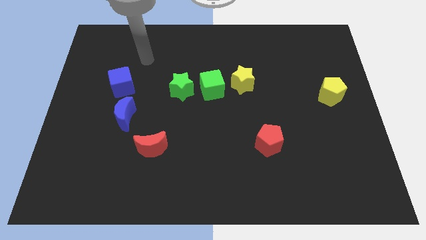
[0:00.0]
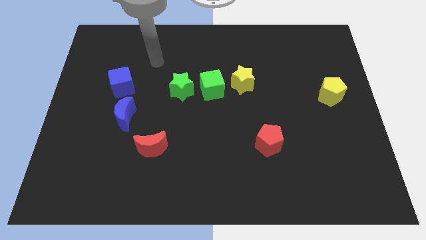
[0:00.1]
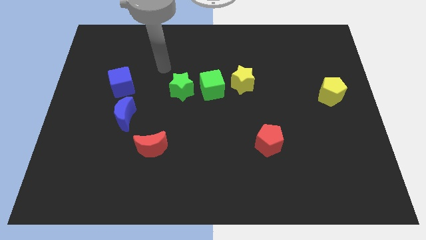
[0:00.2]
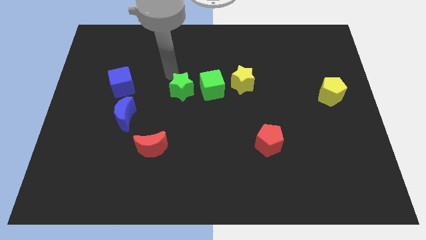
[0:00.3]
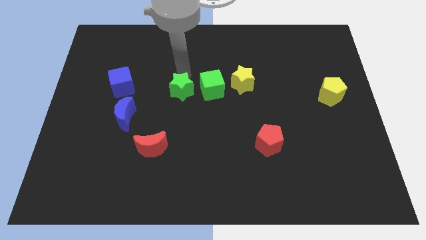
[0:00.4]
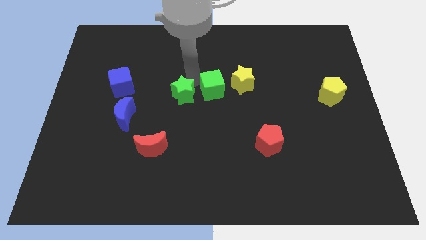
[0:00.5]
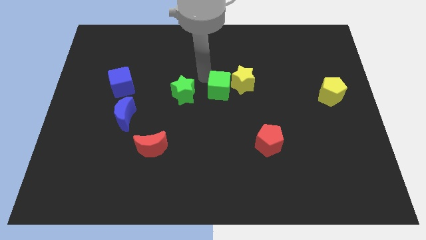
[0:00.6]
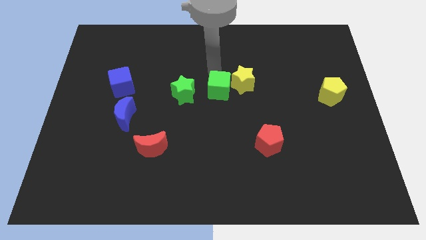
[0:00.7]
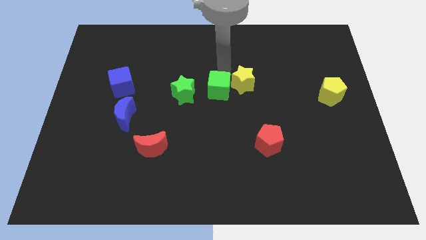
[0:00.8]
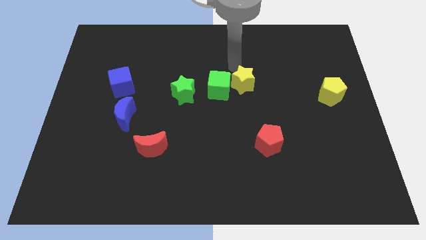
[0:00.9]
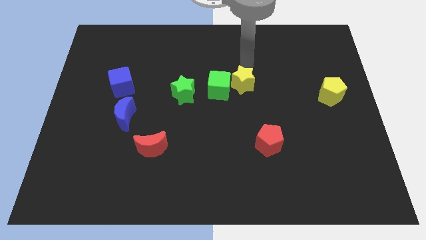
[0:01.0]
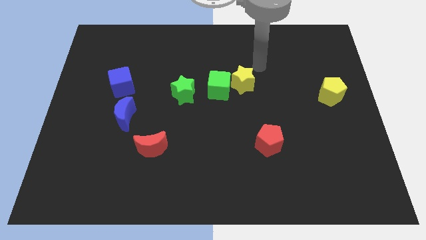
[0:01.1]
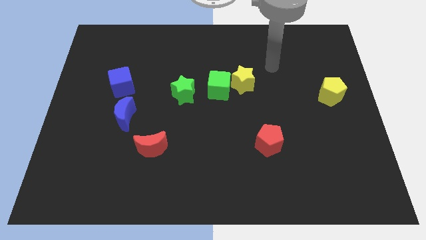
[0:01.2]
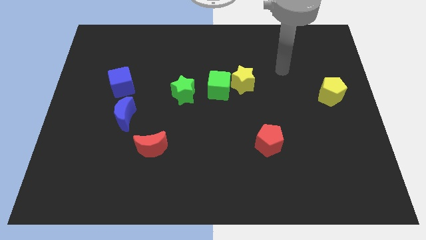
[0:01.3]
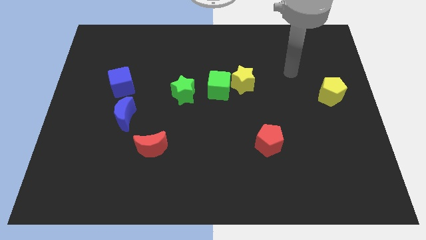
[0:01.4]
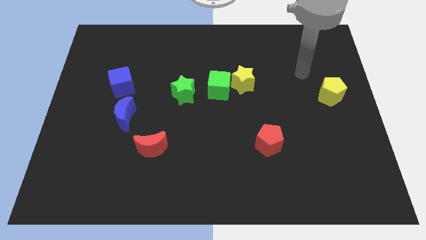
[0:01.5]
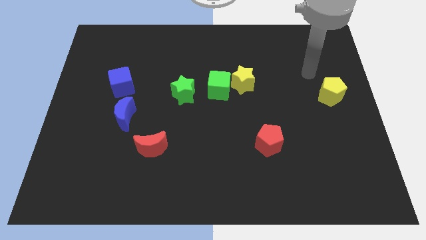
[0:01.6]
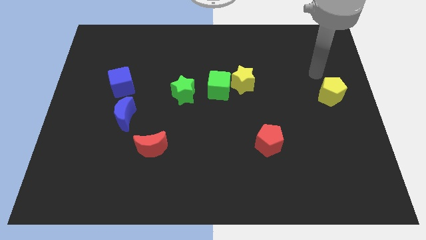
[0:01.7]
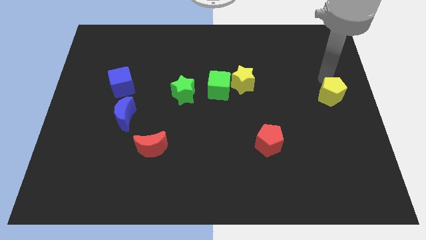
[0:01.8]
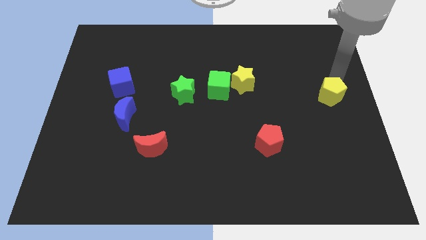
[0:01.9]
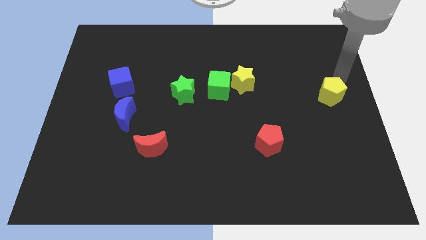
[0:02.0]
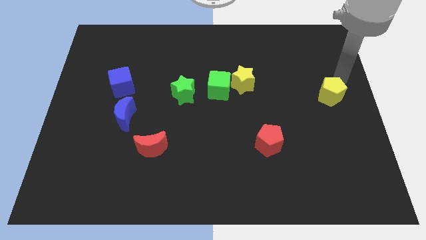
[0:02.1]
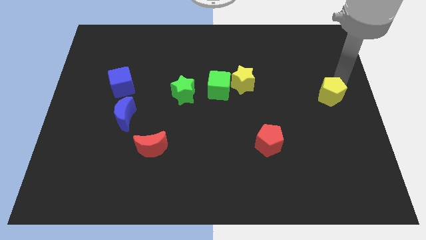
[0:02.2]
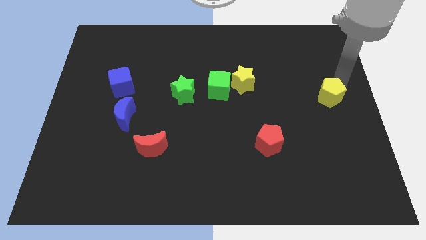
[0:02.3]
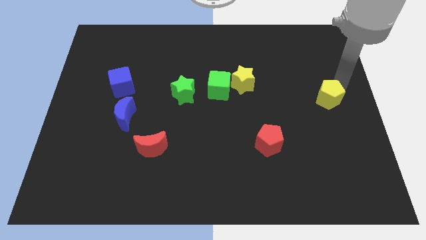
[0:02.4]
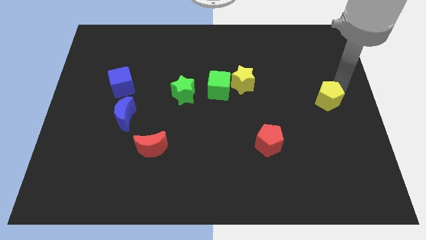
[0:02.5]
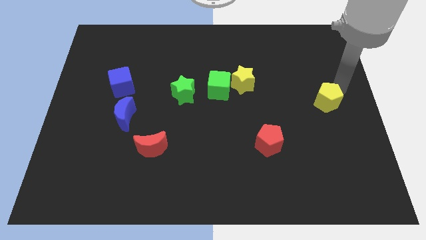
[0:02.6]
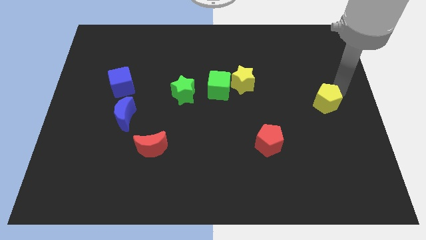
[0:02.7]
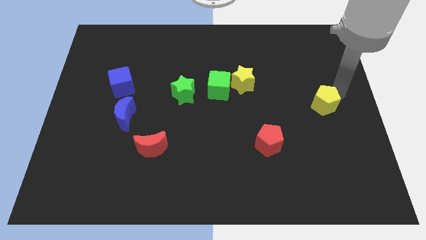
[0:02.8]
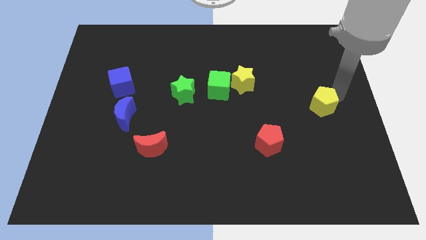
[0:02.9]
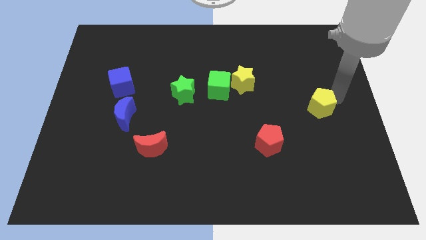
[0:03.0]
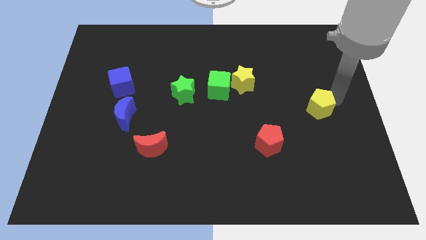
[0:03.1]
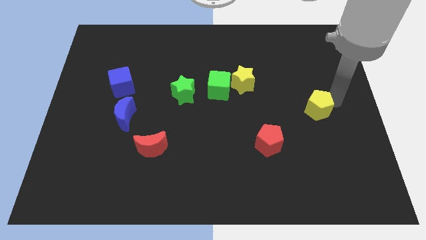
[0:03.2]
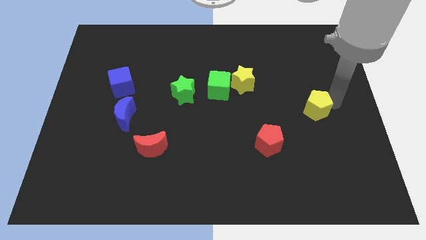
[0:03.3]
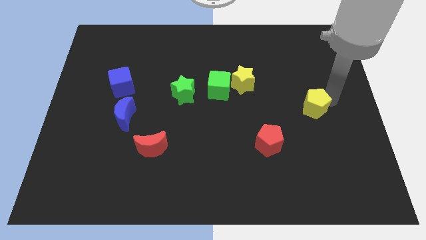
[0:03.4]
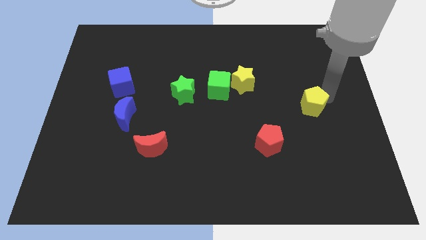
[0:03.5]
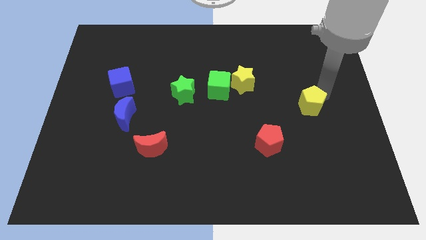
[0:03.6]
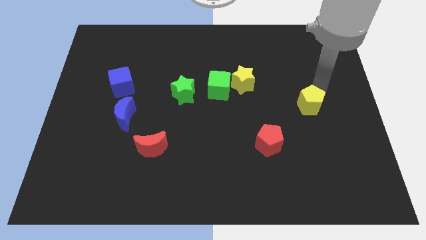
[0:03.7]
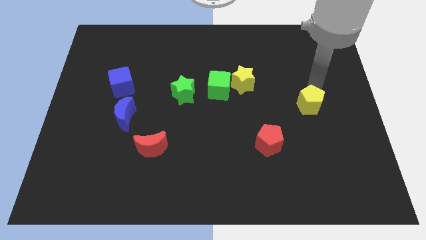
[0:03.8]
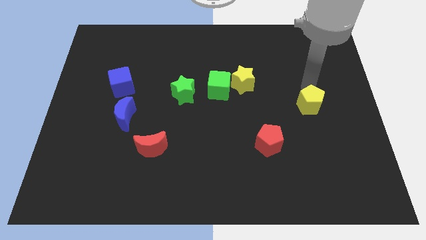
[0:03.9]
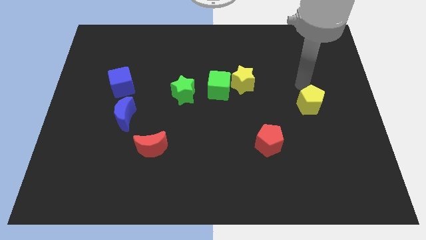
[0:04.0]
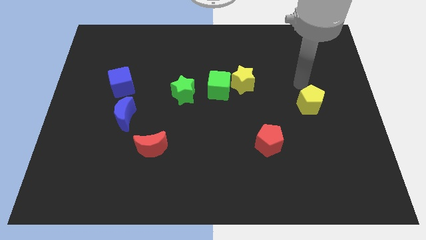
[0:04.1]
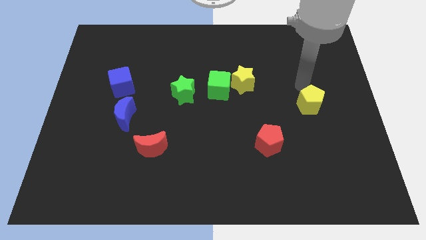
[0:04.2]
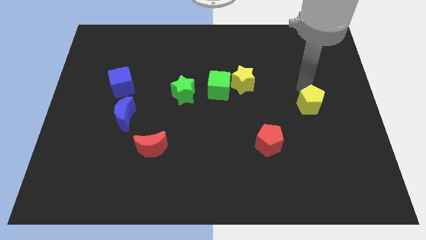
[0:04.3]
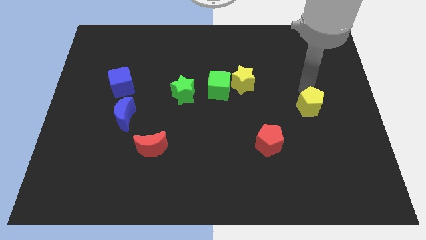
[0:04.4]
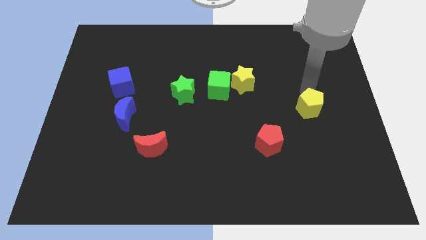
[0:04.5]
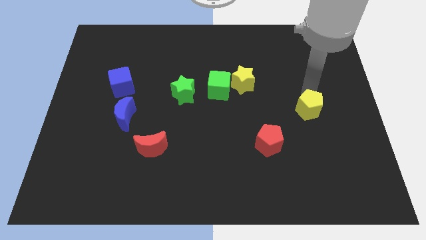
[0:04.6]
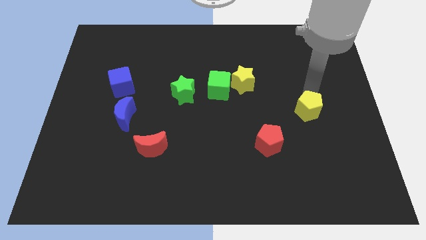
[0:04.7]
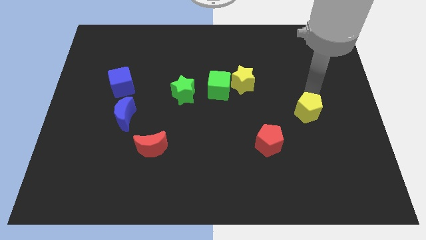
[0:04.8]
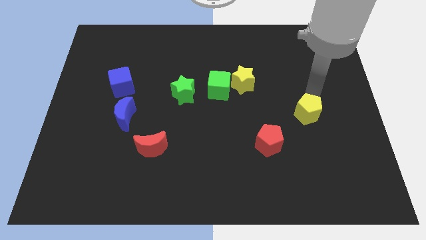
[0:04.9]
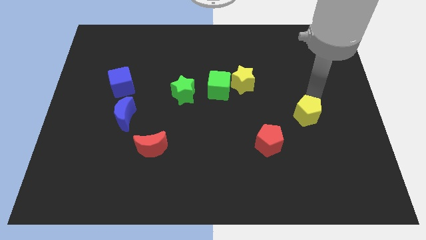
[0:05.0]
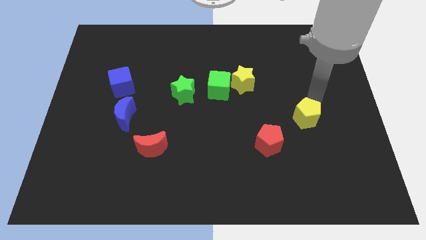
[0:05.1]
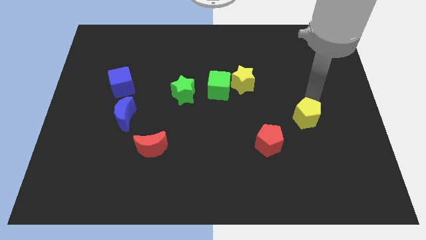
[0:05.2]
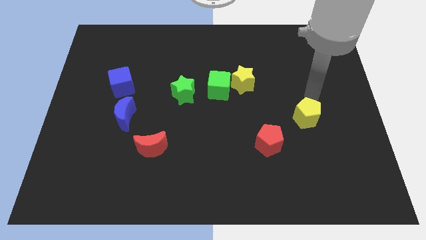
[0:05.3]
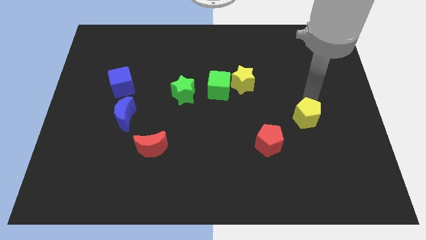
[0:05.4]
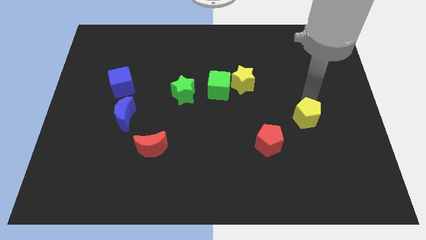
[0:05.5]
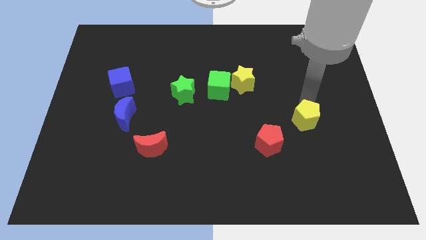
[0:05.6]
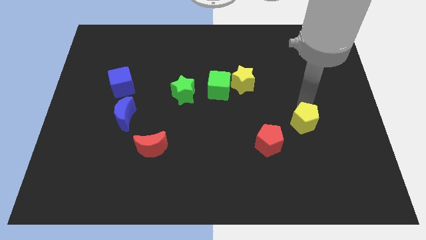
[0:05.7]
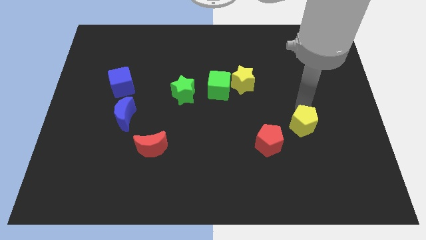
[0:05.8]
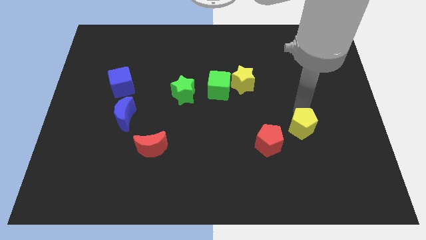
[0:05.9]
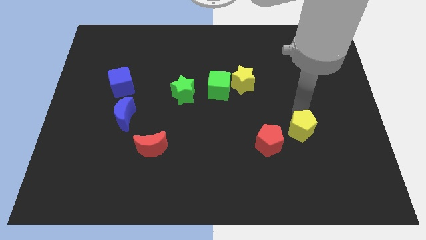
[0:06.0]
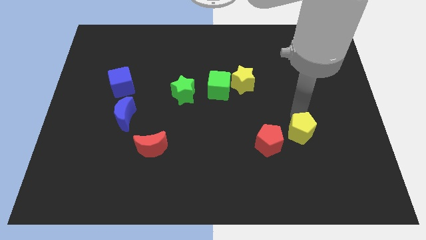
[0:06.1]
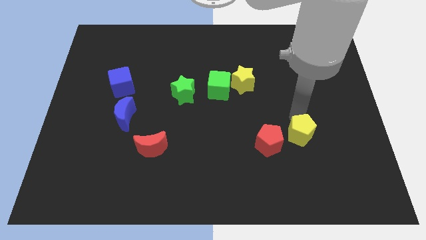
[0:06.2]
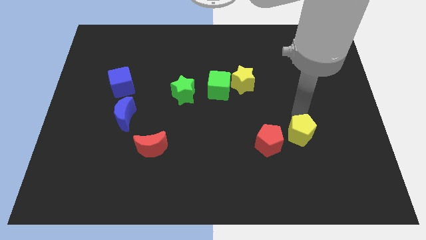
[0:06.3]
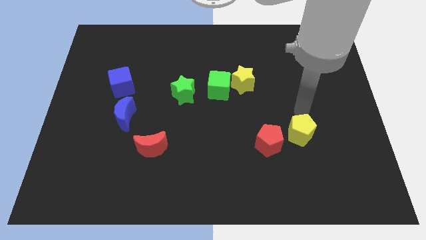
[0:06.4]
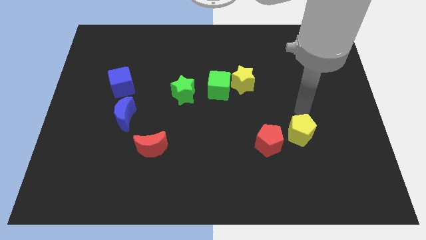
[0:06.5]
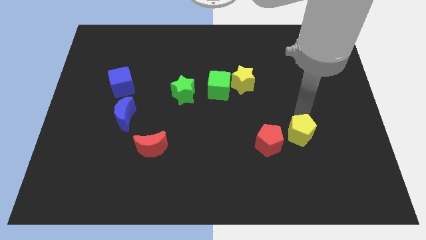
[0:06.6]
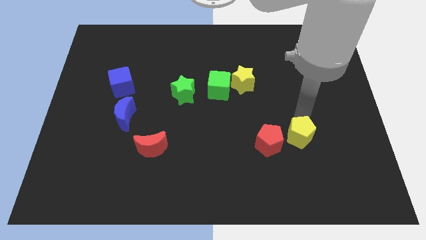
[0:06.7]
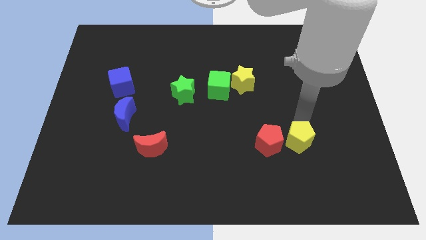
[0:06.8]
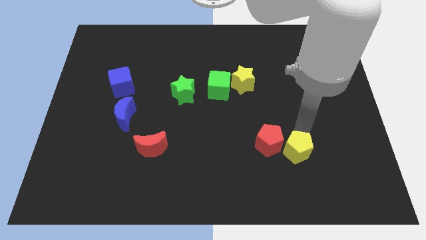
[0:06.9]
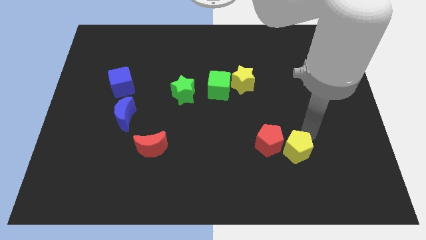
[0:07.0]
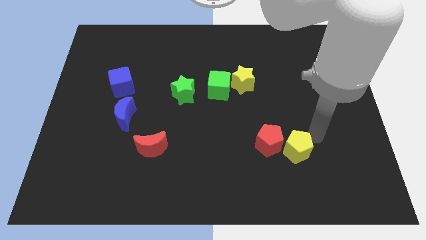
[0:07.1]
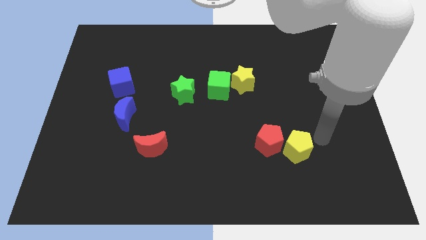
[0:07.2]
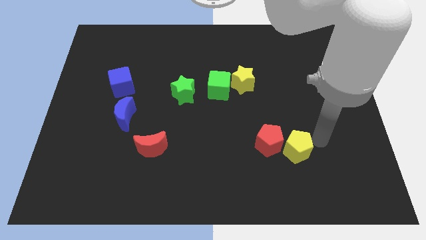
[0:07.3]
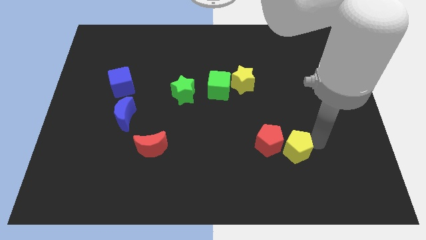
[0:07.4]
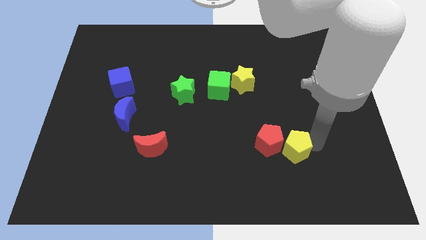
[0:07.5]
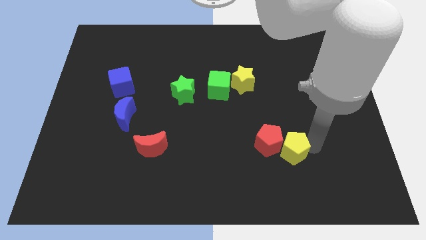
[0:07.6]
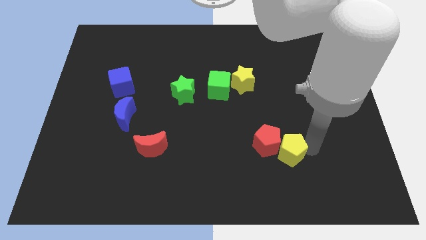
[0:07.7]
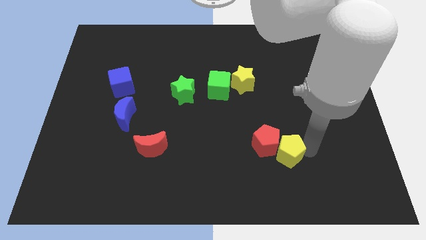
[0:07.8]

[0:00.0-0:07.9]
move the yellow pentagon down and left diagonally

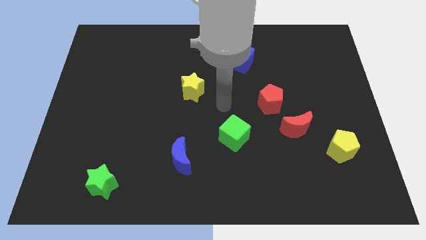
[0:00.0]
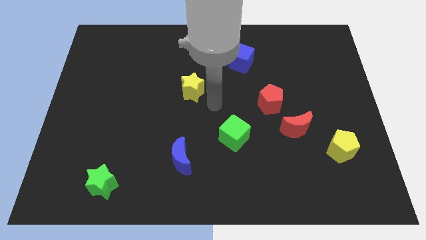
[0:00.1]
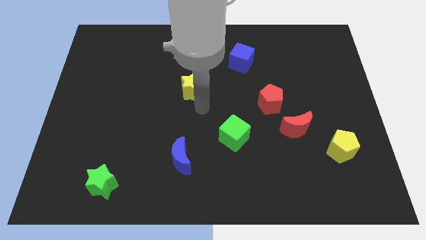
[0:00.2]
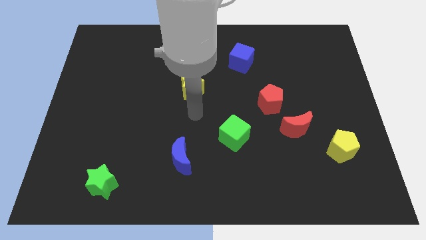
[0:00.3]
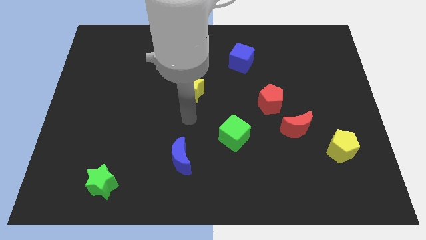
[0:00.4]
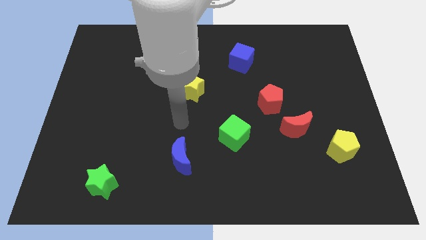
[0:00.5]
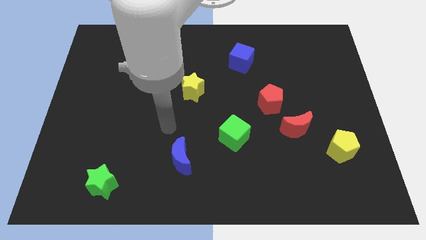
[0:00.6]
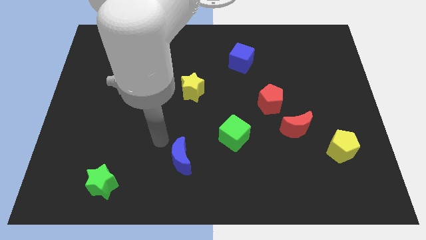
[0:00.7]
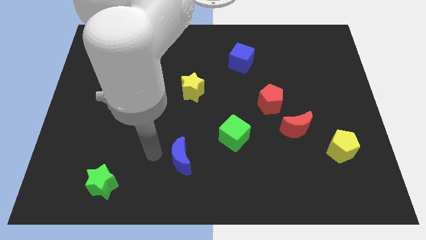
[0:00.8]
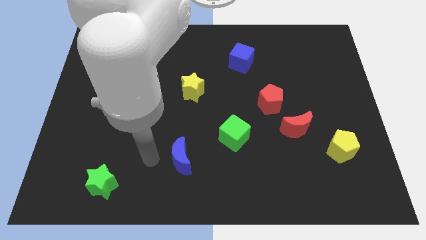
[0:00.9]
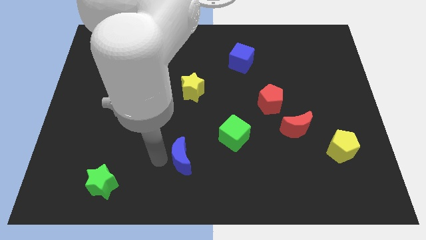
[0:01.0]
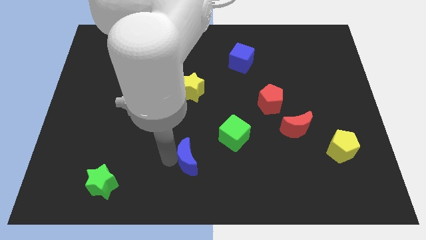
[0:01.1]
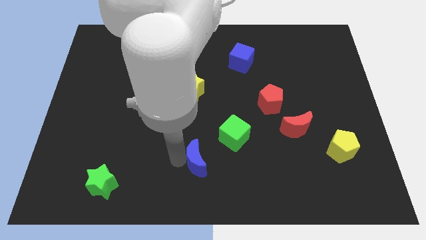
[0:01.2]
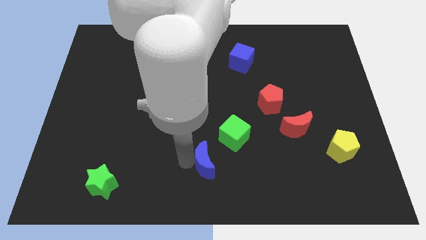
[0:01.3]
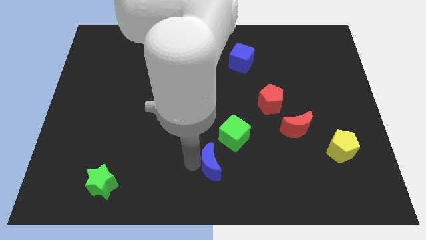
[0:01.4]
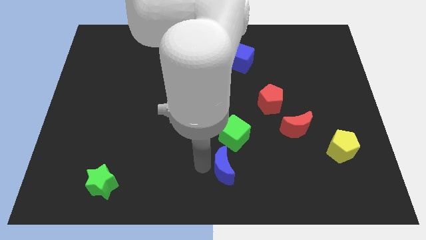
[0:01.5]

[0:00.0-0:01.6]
slide the blue moon somewhat right
